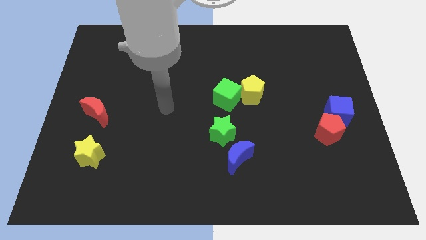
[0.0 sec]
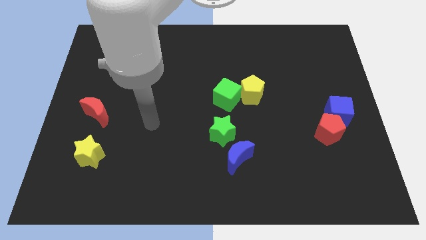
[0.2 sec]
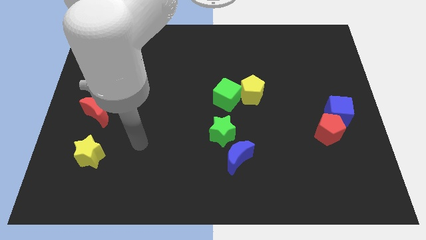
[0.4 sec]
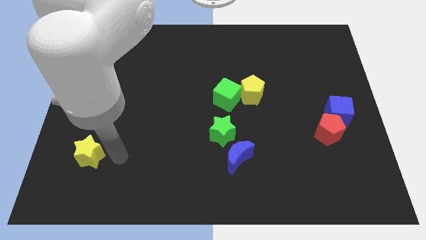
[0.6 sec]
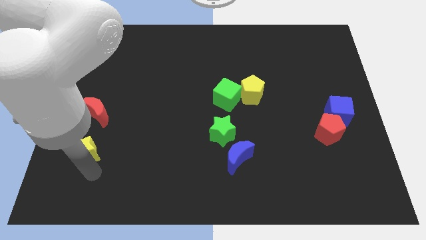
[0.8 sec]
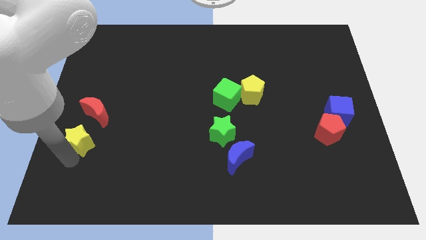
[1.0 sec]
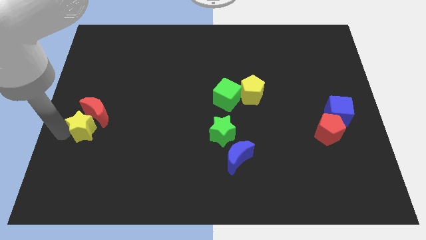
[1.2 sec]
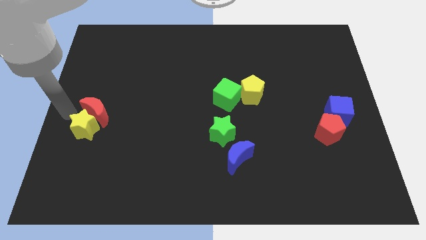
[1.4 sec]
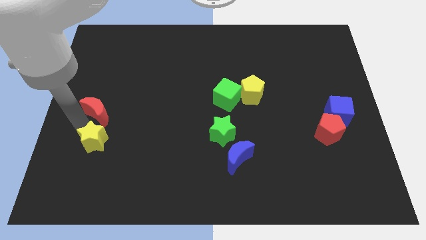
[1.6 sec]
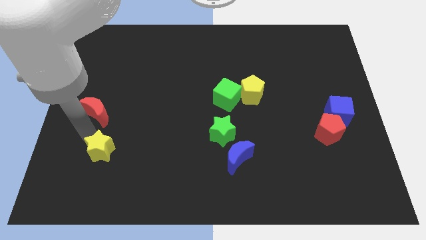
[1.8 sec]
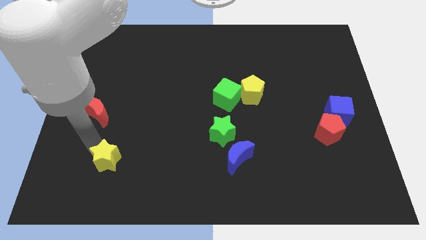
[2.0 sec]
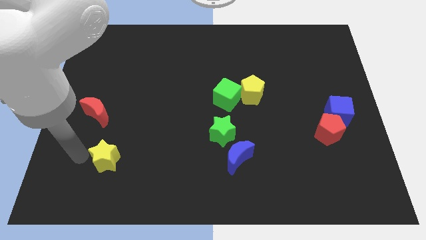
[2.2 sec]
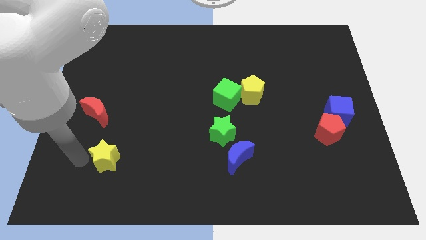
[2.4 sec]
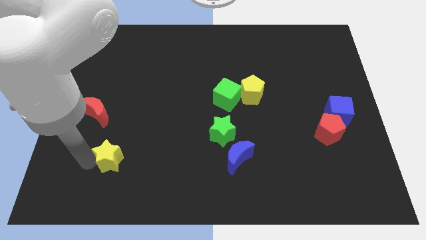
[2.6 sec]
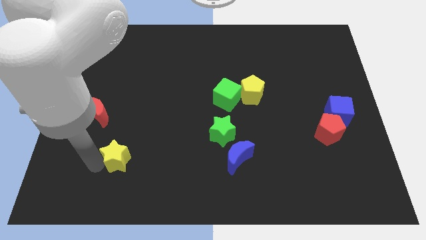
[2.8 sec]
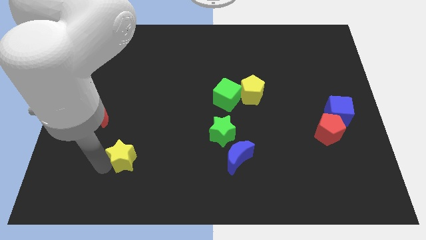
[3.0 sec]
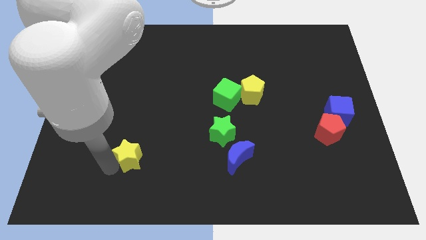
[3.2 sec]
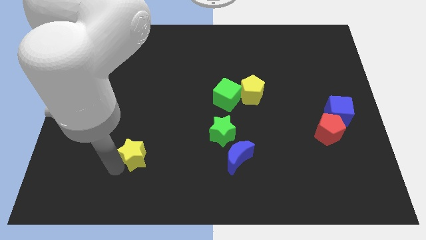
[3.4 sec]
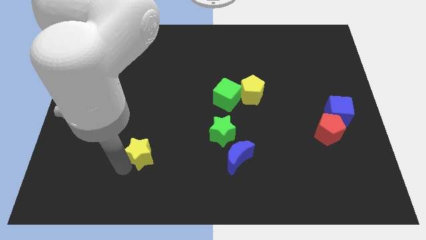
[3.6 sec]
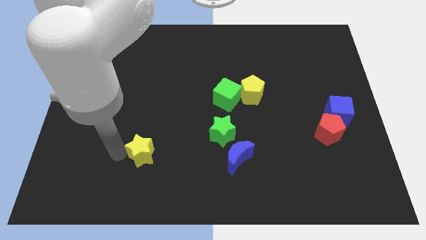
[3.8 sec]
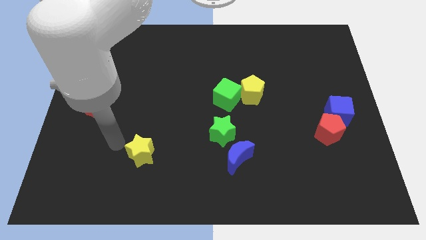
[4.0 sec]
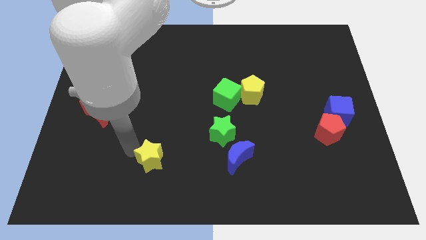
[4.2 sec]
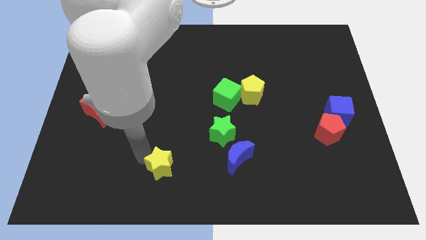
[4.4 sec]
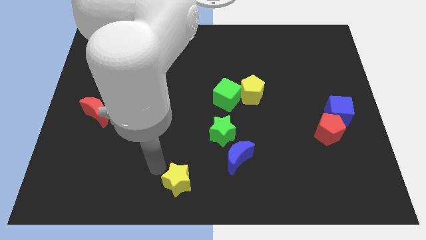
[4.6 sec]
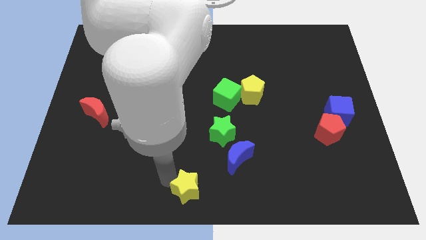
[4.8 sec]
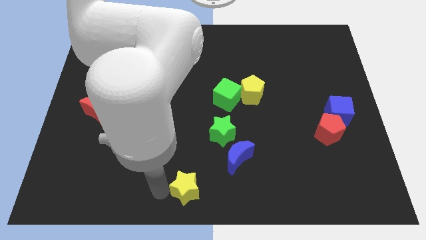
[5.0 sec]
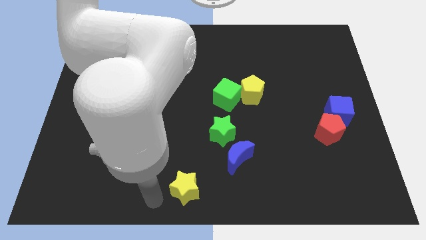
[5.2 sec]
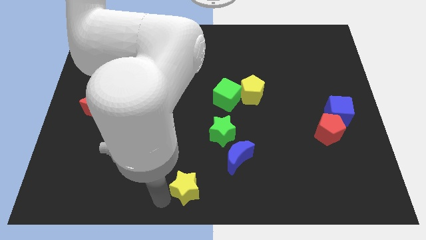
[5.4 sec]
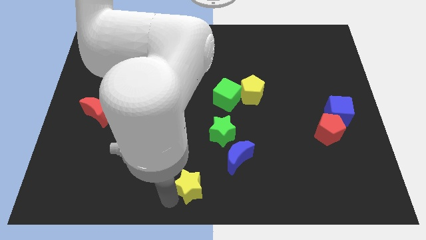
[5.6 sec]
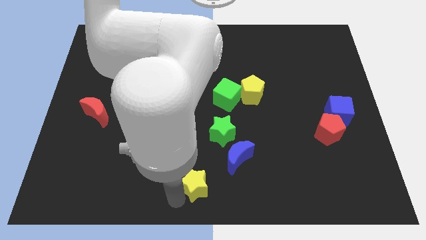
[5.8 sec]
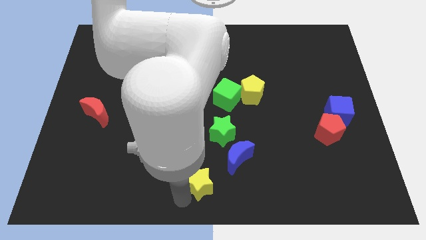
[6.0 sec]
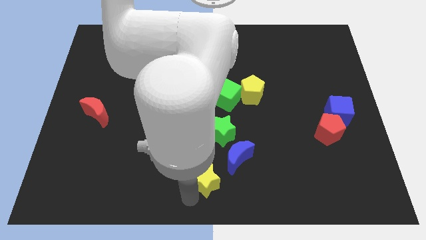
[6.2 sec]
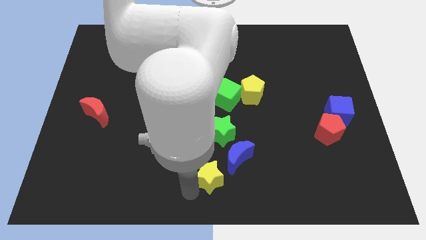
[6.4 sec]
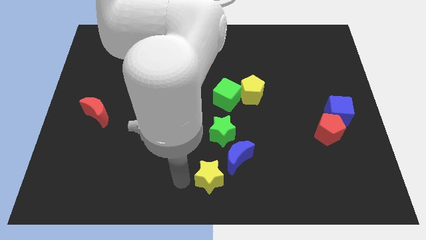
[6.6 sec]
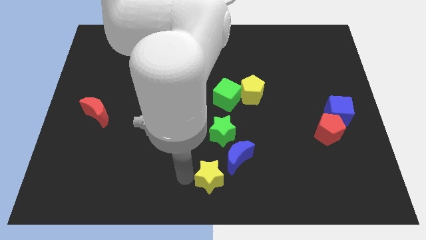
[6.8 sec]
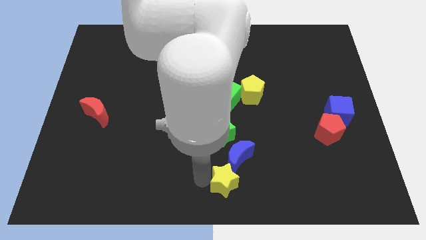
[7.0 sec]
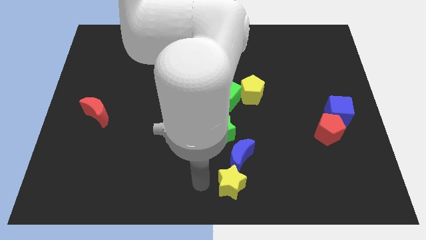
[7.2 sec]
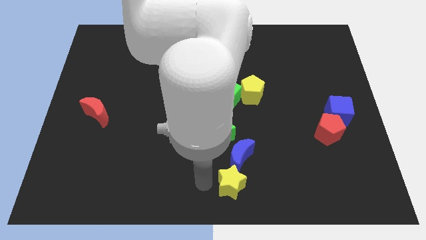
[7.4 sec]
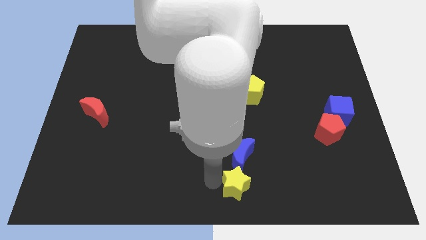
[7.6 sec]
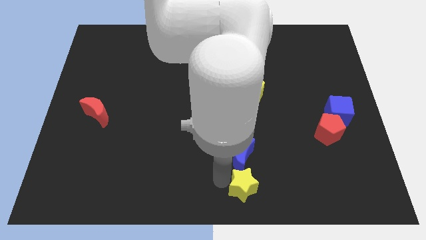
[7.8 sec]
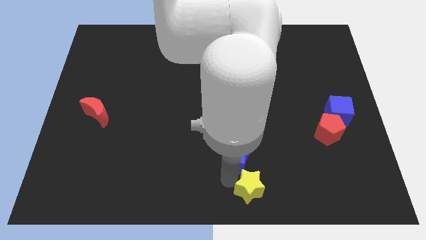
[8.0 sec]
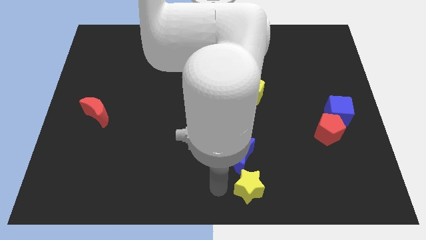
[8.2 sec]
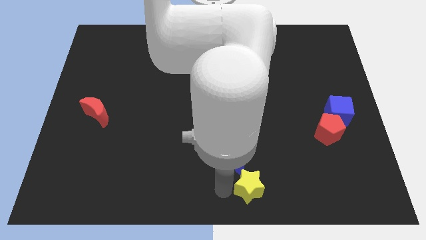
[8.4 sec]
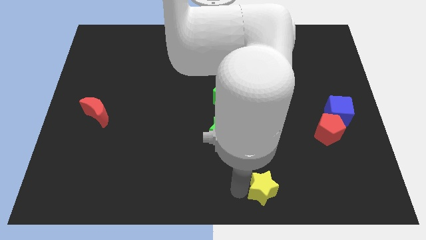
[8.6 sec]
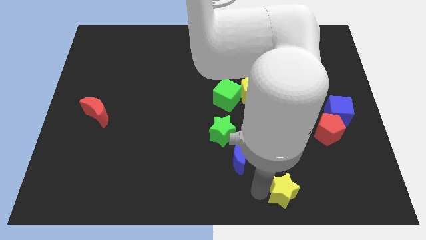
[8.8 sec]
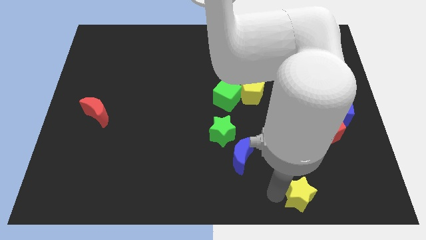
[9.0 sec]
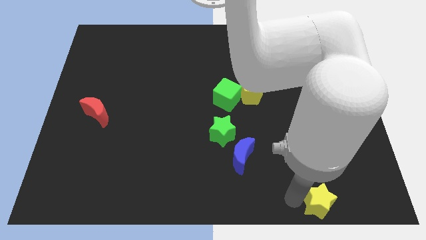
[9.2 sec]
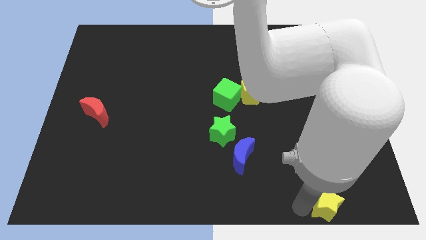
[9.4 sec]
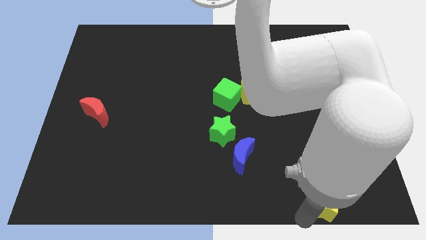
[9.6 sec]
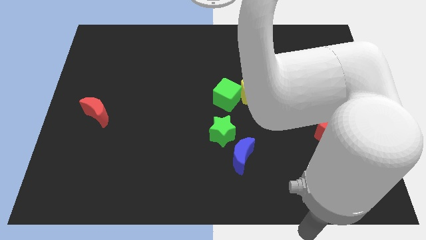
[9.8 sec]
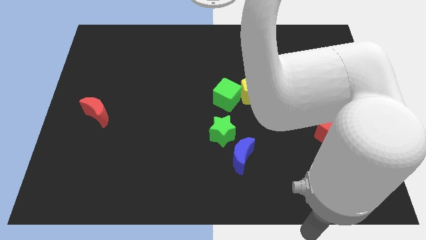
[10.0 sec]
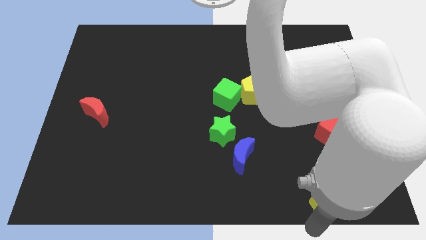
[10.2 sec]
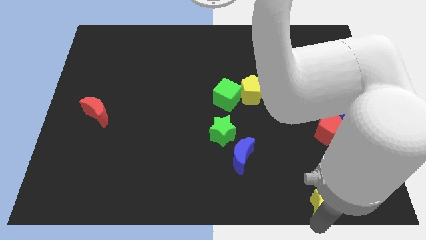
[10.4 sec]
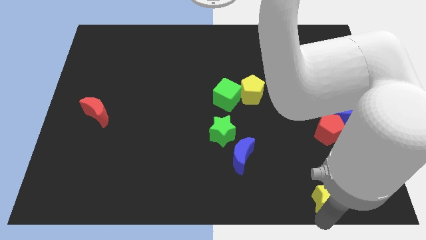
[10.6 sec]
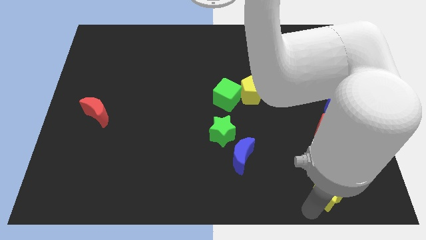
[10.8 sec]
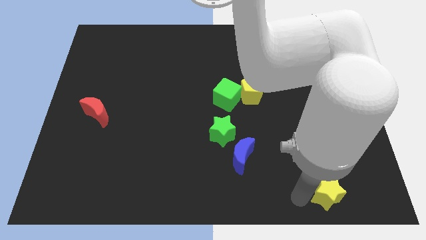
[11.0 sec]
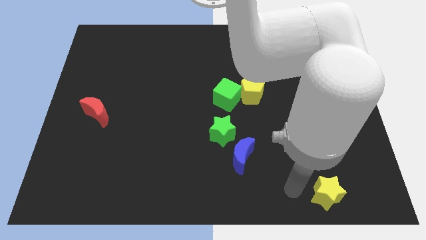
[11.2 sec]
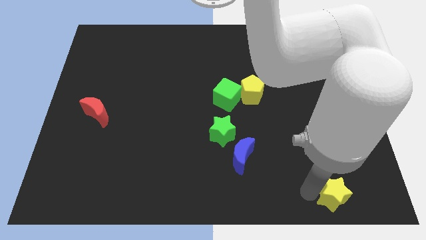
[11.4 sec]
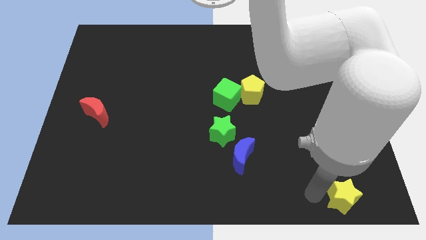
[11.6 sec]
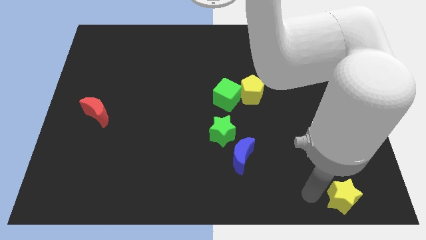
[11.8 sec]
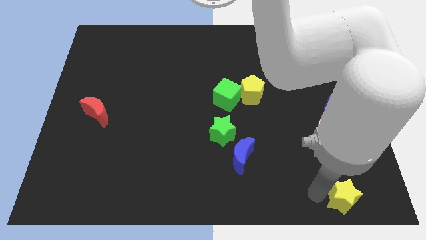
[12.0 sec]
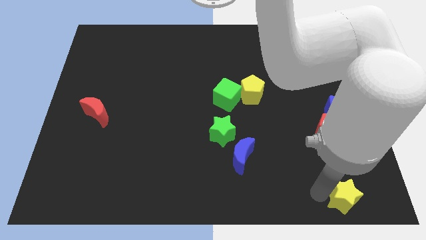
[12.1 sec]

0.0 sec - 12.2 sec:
put the yellow star to the lower right corner

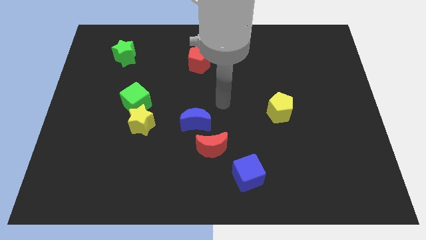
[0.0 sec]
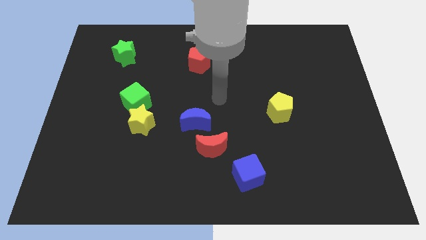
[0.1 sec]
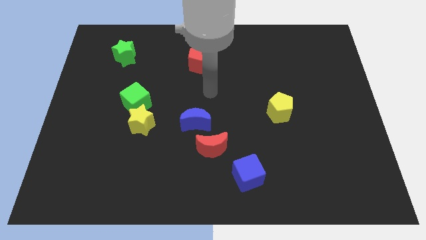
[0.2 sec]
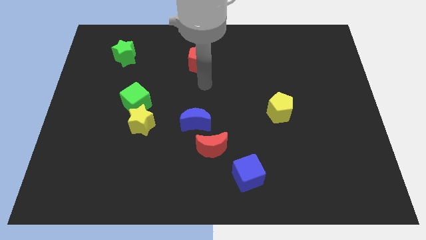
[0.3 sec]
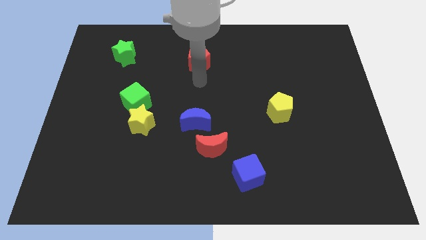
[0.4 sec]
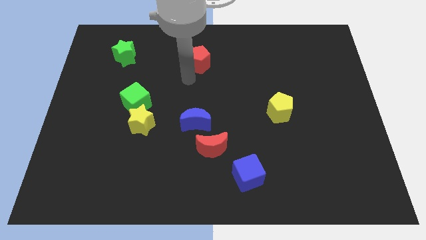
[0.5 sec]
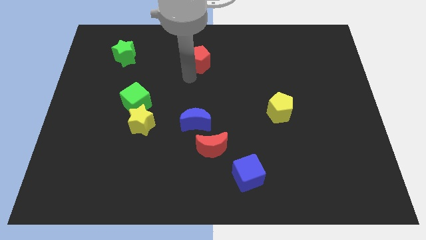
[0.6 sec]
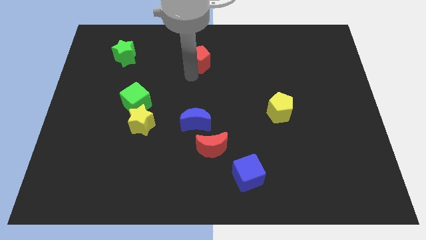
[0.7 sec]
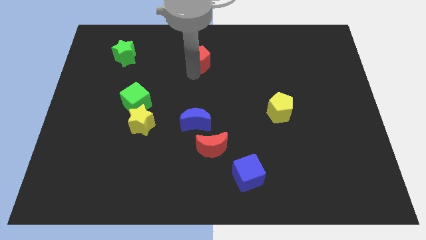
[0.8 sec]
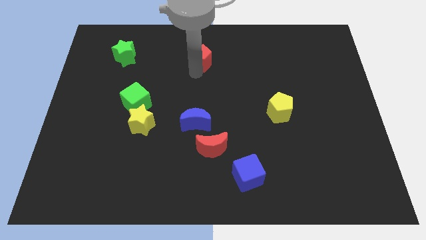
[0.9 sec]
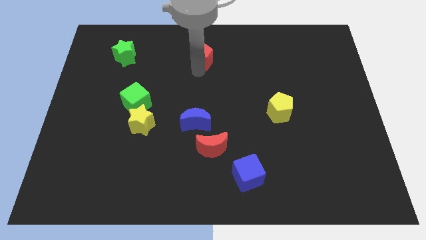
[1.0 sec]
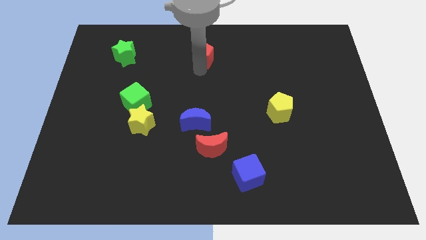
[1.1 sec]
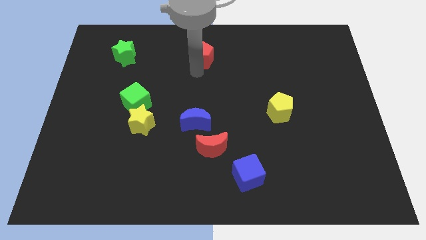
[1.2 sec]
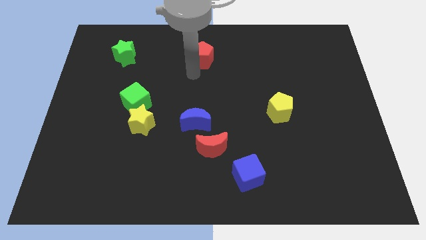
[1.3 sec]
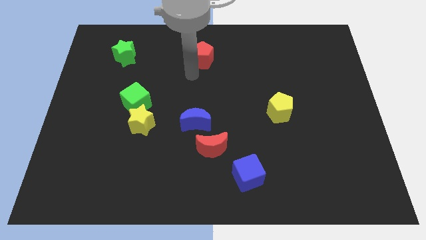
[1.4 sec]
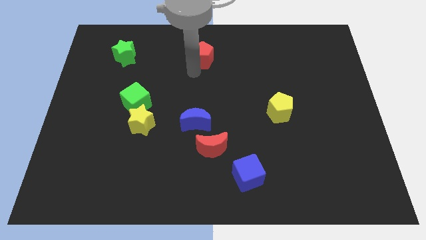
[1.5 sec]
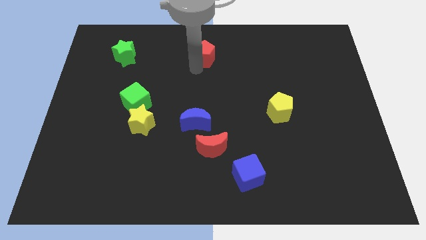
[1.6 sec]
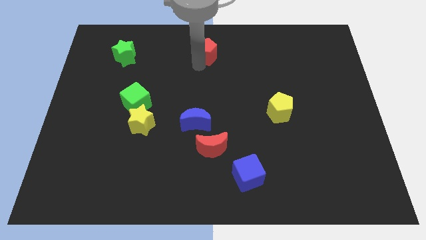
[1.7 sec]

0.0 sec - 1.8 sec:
slide the red pentagon to the top
